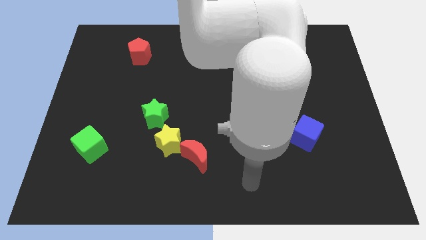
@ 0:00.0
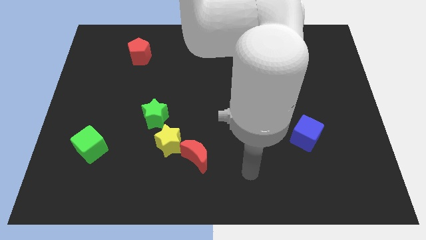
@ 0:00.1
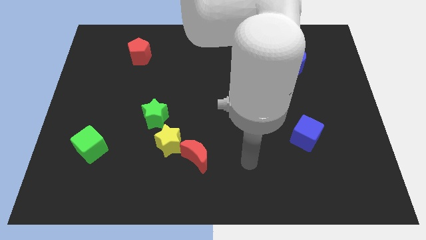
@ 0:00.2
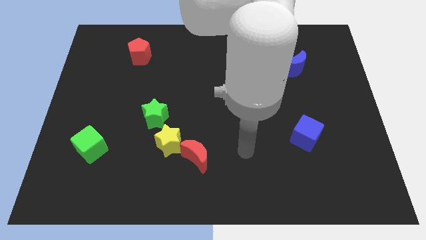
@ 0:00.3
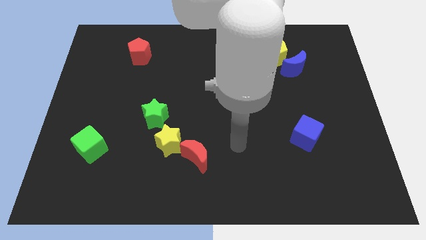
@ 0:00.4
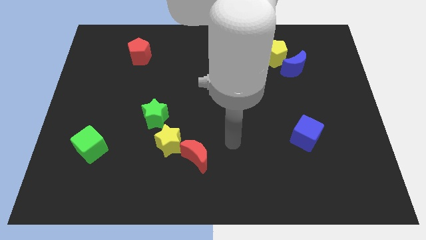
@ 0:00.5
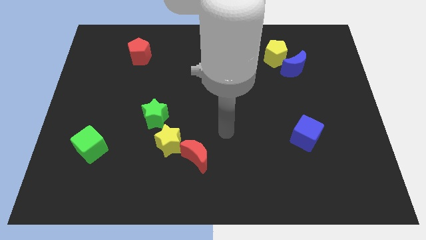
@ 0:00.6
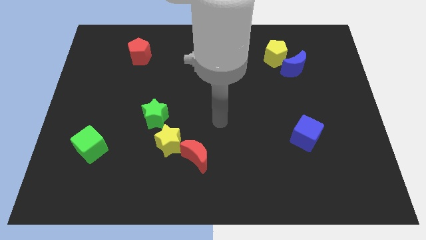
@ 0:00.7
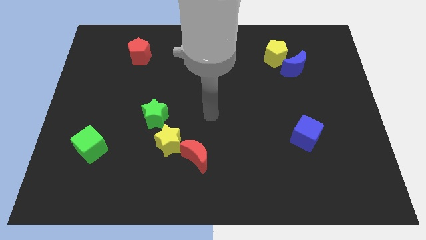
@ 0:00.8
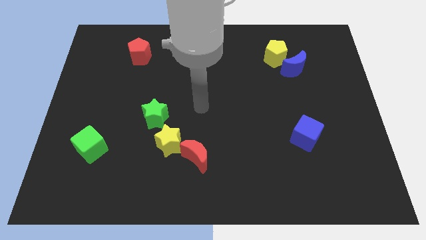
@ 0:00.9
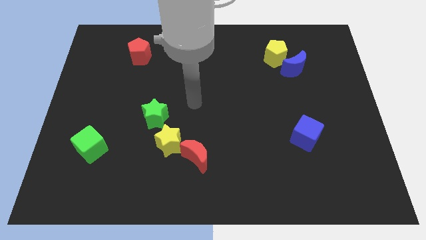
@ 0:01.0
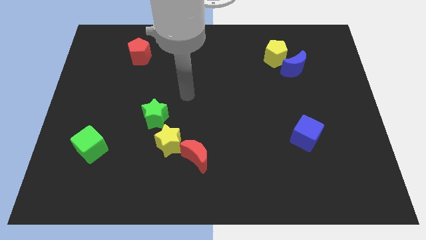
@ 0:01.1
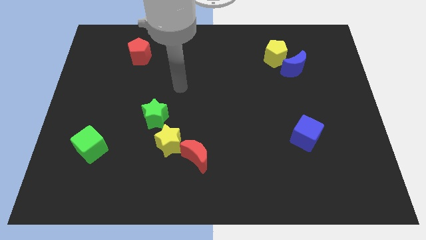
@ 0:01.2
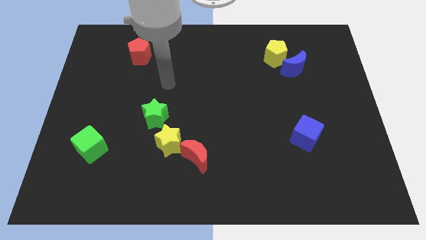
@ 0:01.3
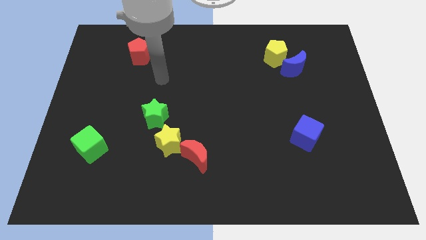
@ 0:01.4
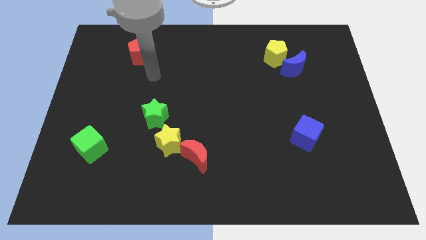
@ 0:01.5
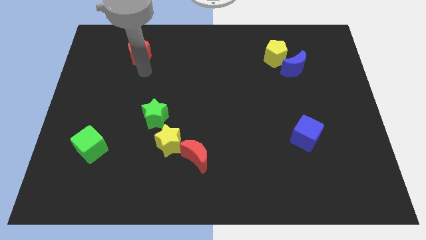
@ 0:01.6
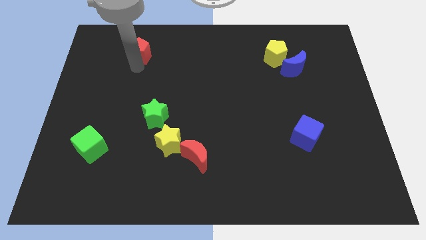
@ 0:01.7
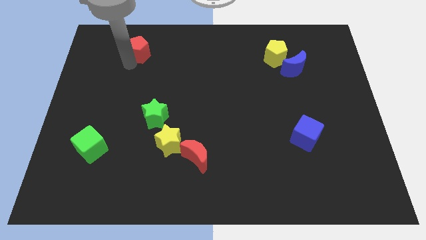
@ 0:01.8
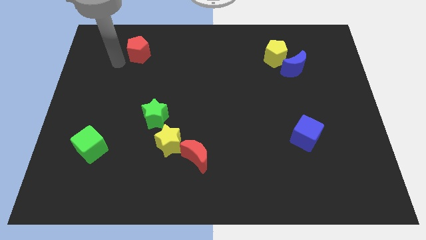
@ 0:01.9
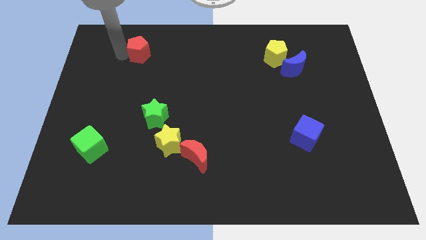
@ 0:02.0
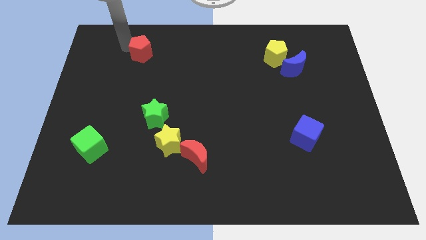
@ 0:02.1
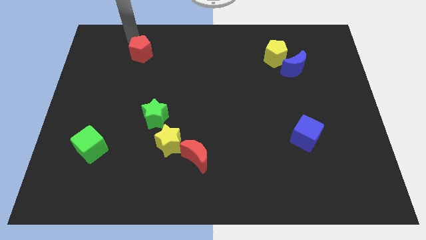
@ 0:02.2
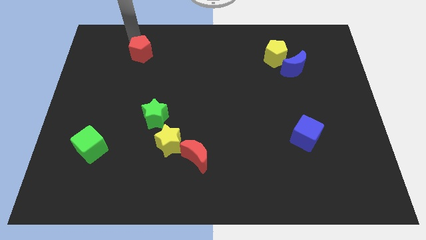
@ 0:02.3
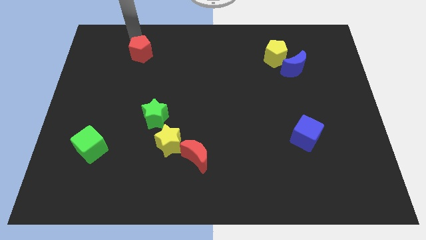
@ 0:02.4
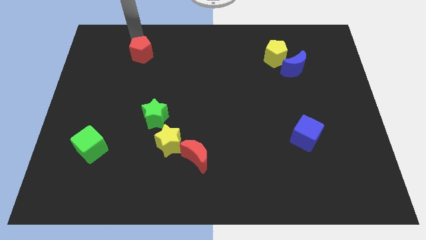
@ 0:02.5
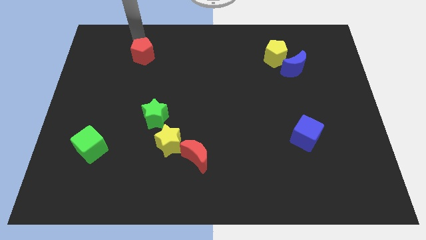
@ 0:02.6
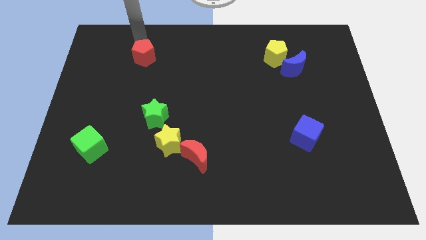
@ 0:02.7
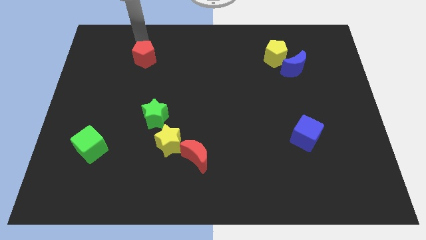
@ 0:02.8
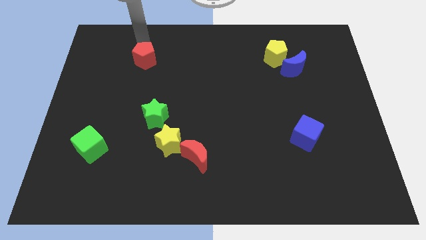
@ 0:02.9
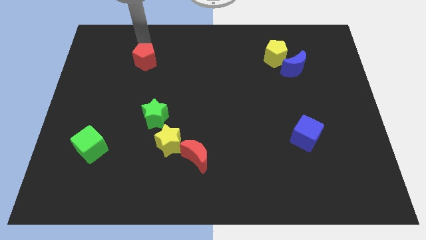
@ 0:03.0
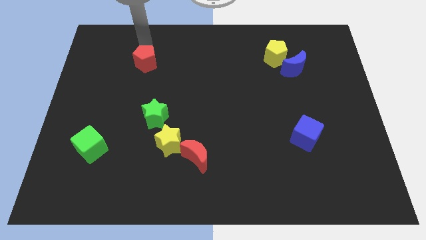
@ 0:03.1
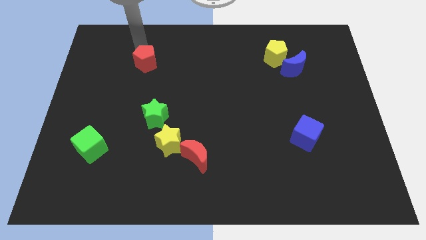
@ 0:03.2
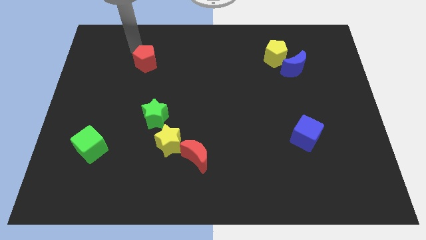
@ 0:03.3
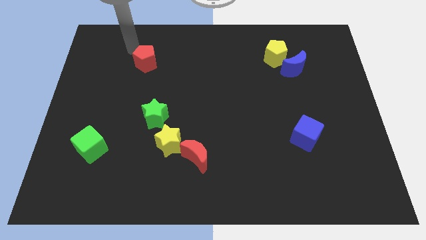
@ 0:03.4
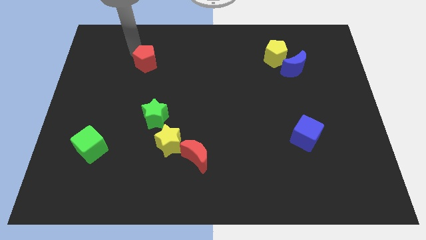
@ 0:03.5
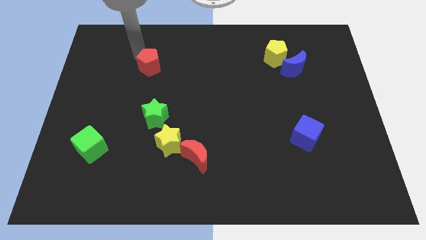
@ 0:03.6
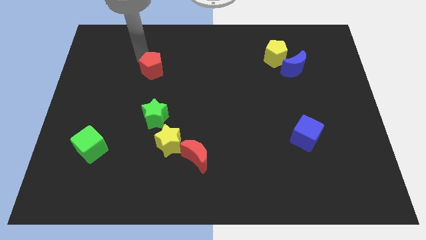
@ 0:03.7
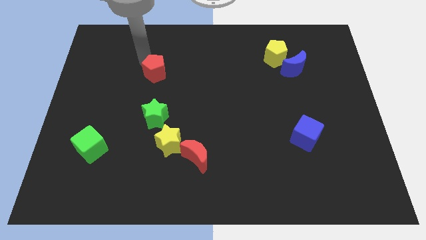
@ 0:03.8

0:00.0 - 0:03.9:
move the red pentagon diagonally downwards and to the right slightly

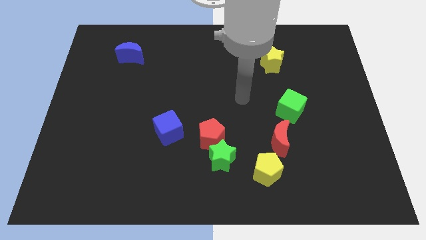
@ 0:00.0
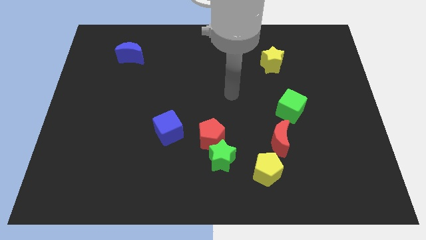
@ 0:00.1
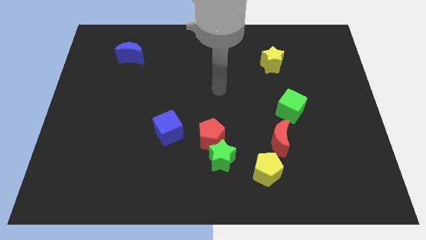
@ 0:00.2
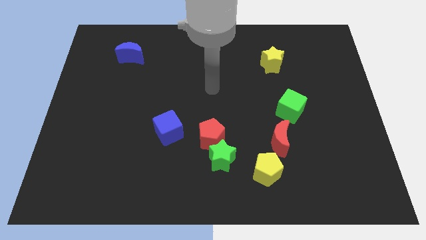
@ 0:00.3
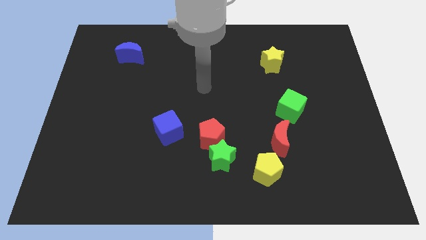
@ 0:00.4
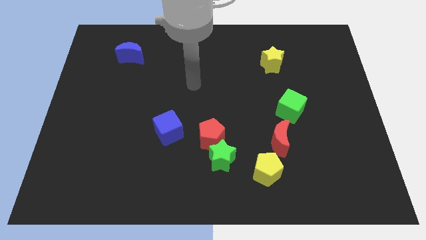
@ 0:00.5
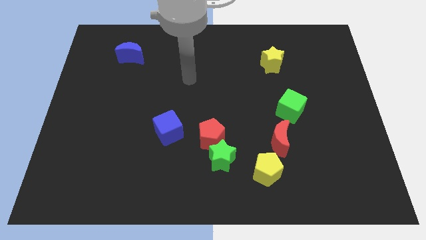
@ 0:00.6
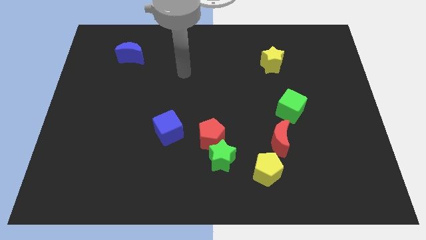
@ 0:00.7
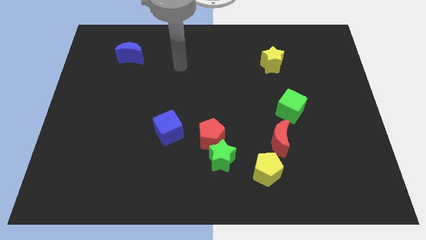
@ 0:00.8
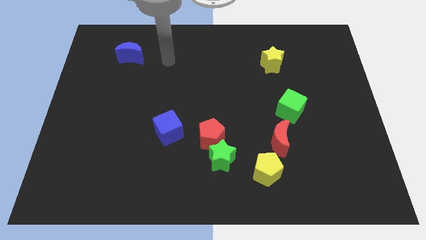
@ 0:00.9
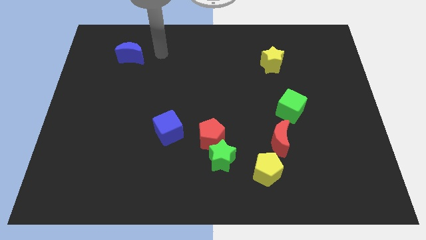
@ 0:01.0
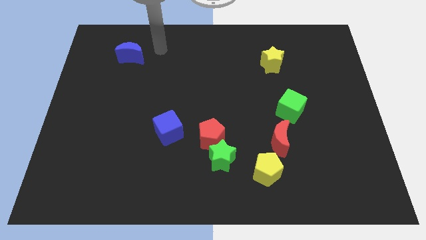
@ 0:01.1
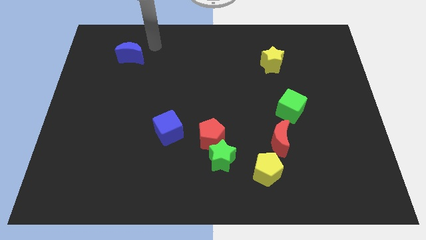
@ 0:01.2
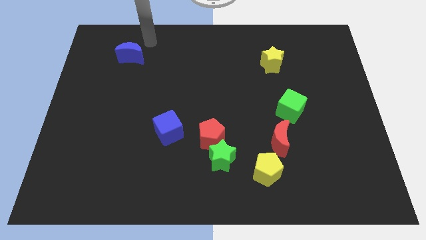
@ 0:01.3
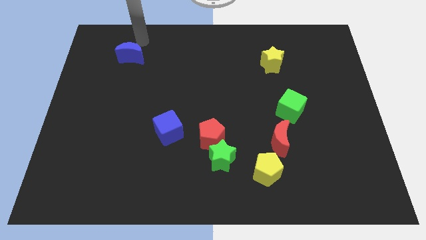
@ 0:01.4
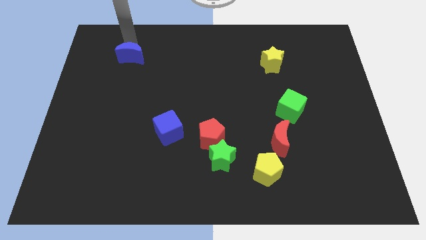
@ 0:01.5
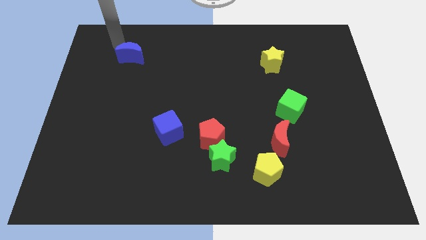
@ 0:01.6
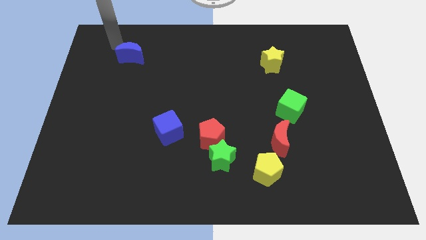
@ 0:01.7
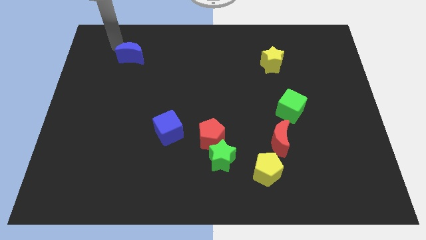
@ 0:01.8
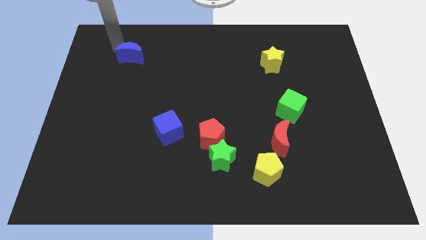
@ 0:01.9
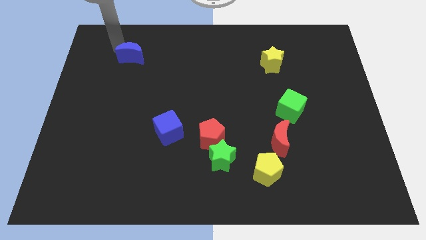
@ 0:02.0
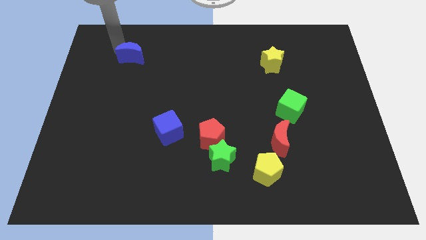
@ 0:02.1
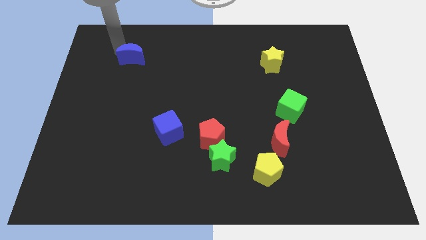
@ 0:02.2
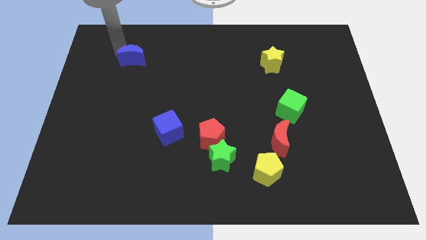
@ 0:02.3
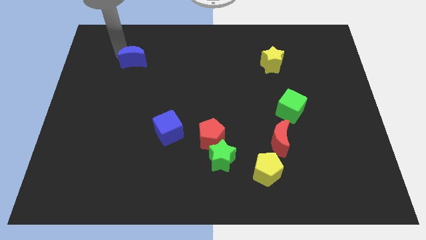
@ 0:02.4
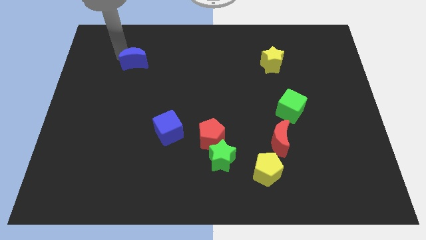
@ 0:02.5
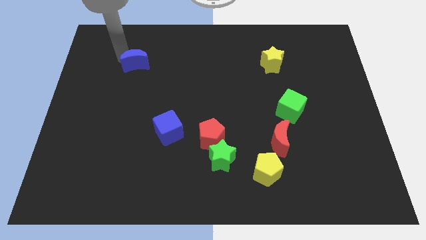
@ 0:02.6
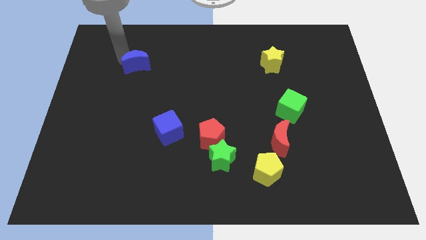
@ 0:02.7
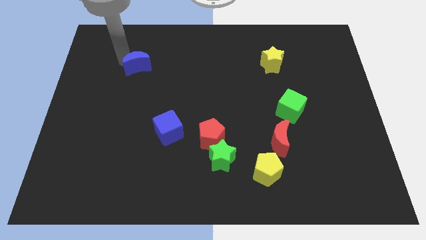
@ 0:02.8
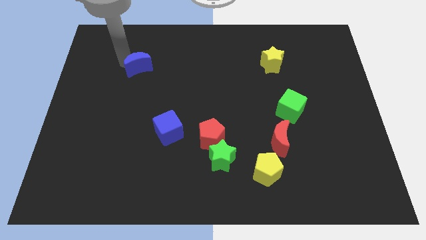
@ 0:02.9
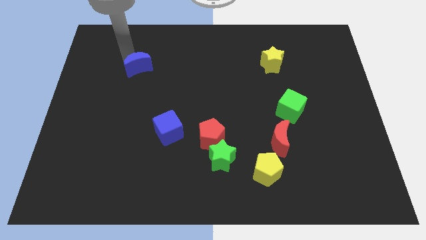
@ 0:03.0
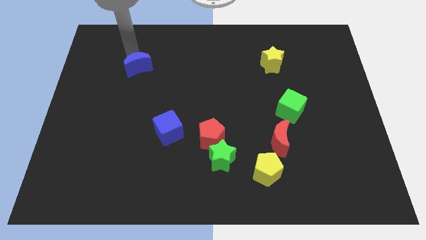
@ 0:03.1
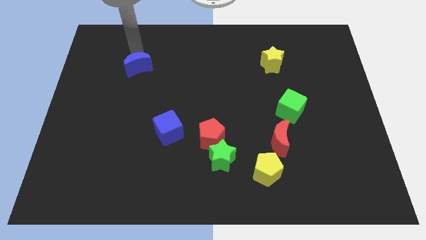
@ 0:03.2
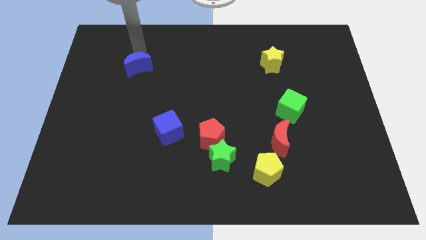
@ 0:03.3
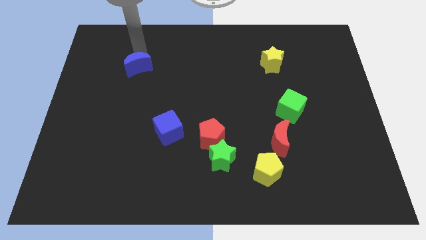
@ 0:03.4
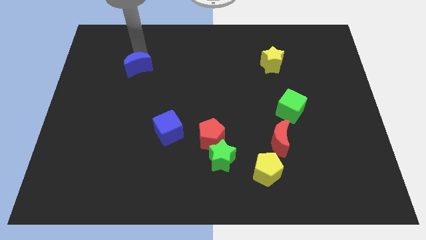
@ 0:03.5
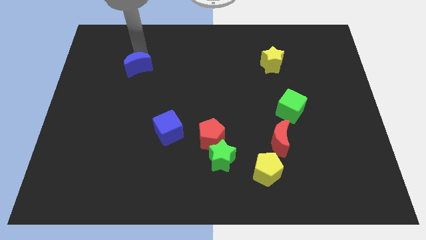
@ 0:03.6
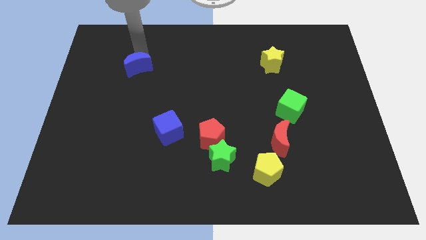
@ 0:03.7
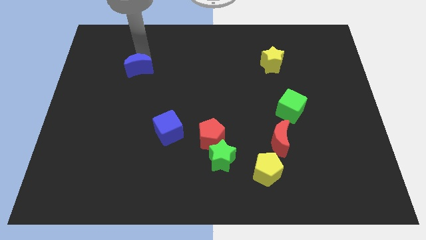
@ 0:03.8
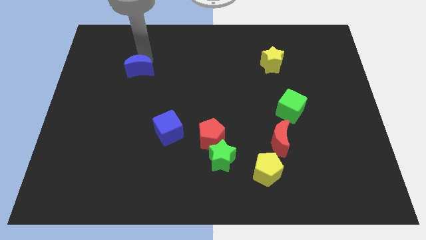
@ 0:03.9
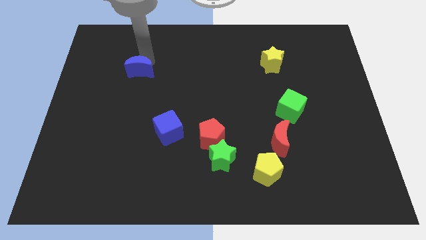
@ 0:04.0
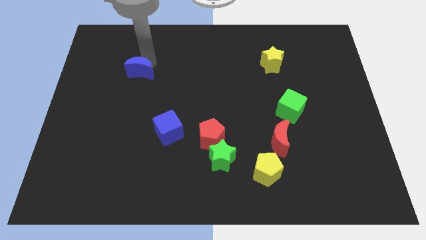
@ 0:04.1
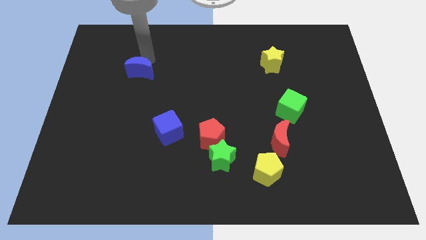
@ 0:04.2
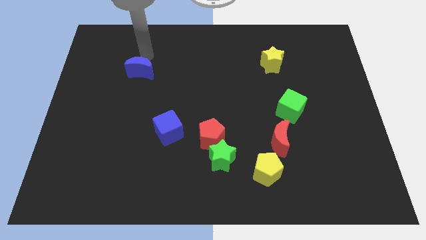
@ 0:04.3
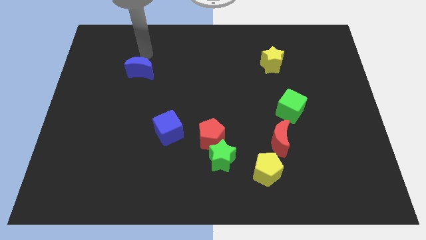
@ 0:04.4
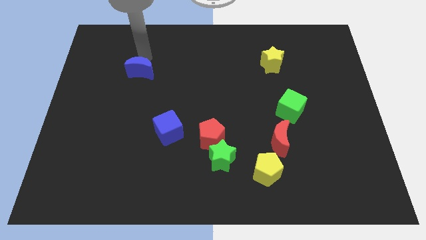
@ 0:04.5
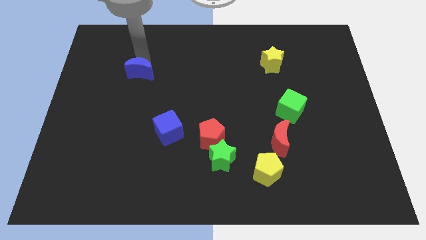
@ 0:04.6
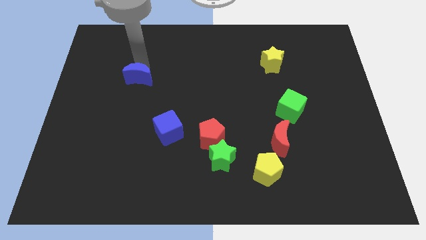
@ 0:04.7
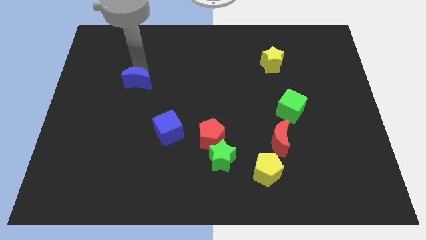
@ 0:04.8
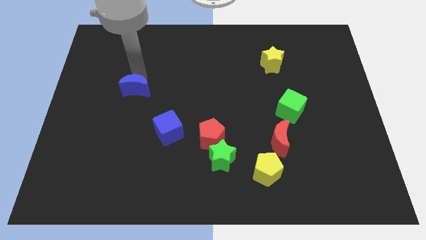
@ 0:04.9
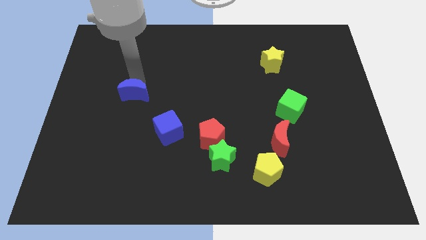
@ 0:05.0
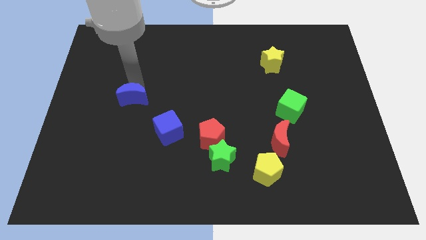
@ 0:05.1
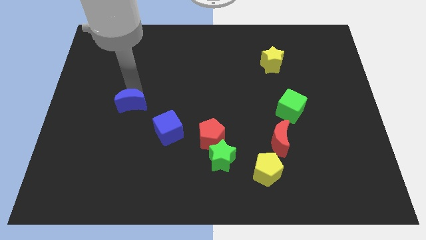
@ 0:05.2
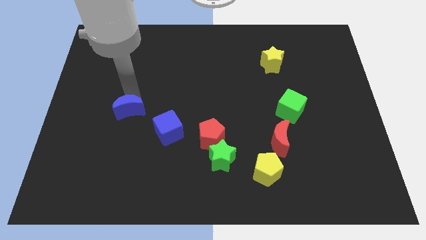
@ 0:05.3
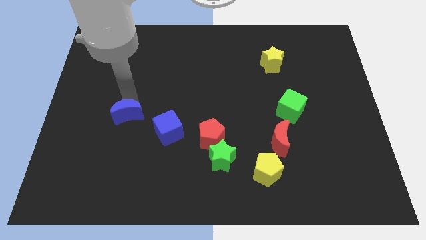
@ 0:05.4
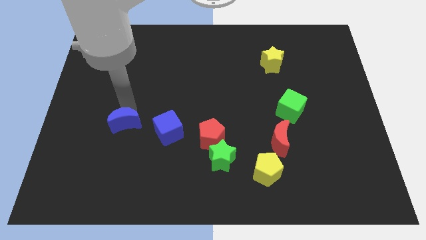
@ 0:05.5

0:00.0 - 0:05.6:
move the blue moon down
